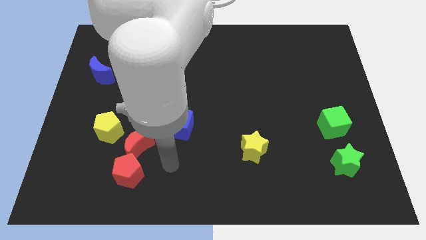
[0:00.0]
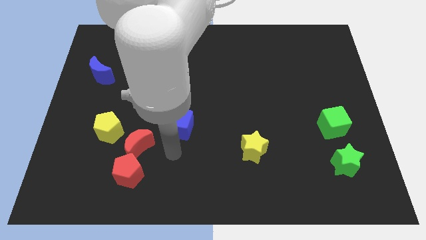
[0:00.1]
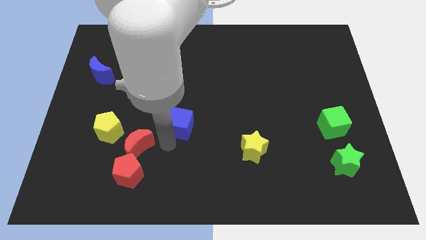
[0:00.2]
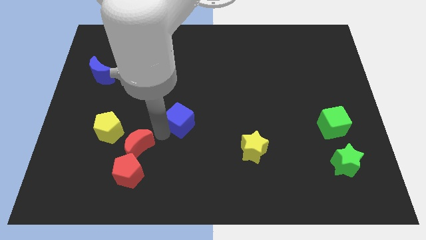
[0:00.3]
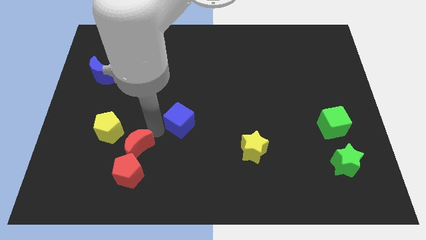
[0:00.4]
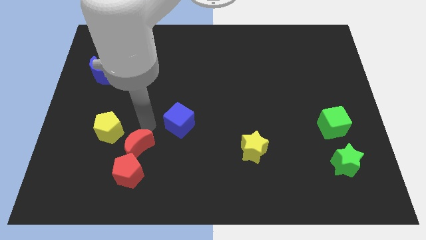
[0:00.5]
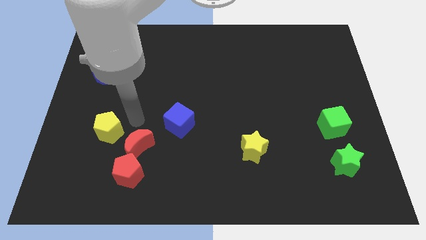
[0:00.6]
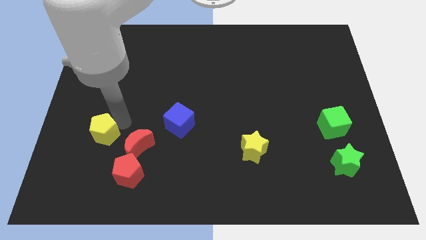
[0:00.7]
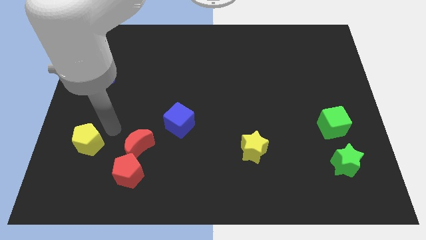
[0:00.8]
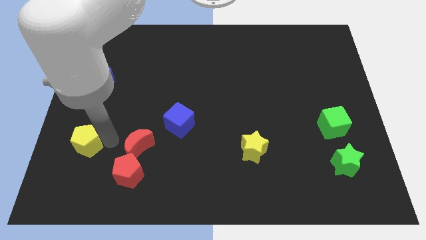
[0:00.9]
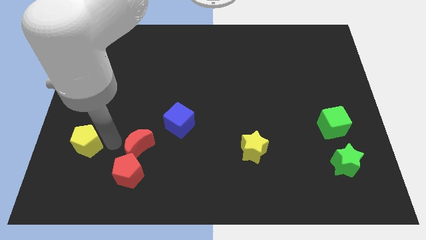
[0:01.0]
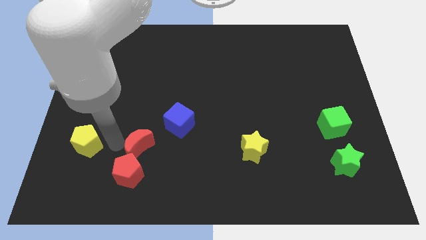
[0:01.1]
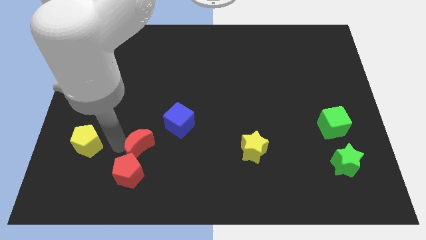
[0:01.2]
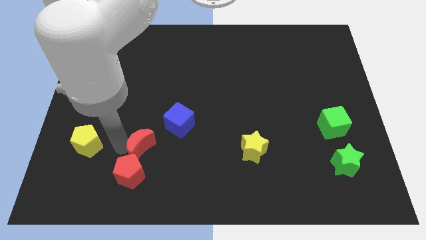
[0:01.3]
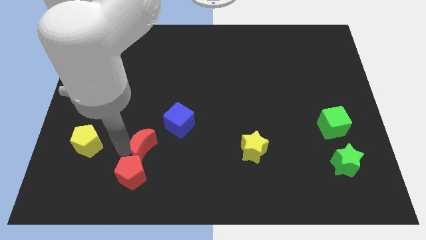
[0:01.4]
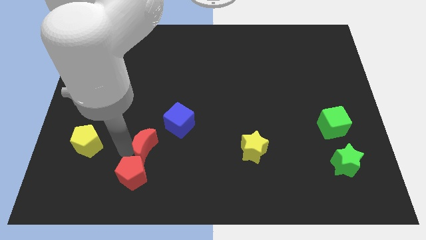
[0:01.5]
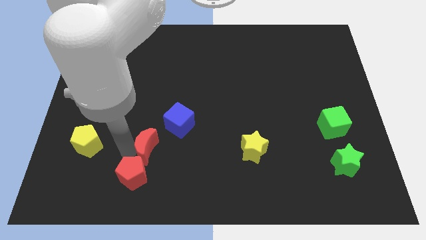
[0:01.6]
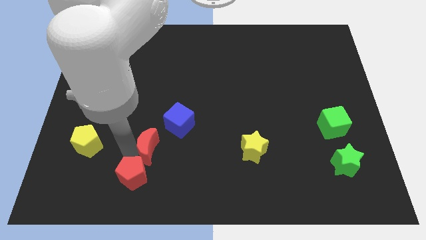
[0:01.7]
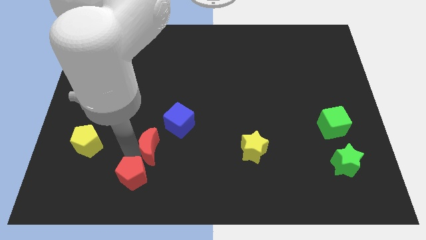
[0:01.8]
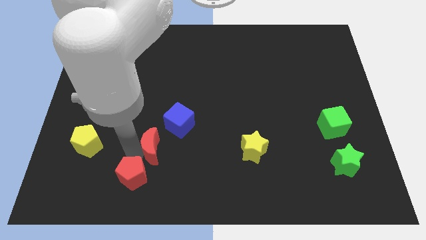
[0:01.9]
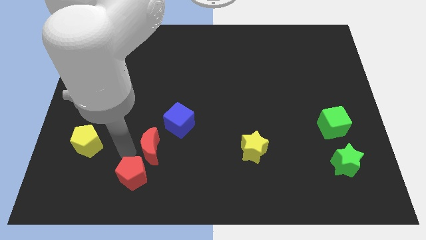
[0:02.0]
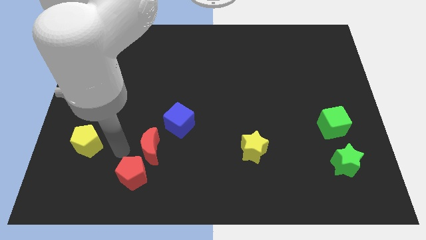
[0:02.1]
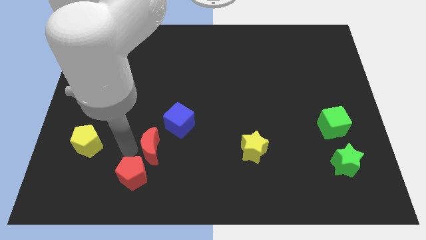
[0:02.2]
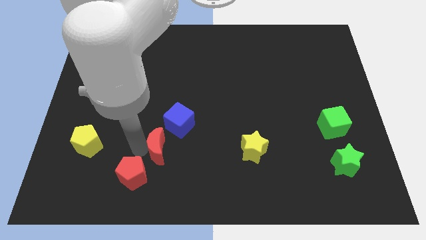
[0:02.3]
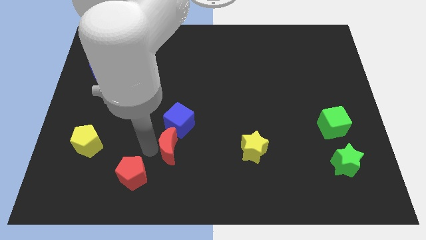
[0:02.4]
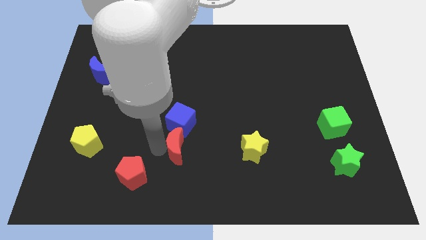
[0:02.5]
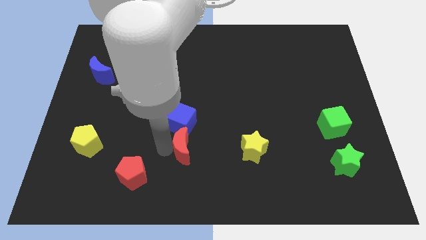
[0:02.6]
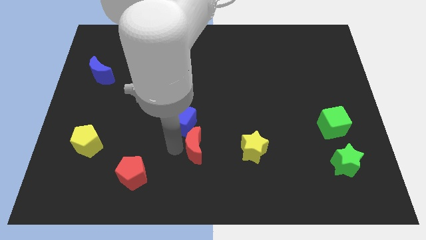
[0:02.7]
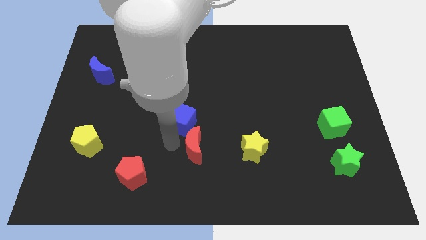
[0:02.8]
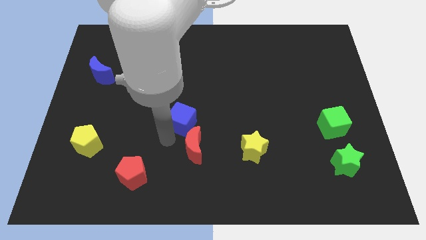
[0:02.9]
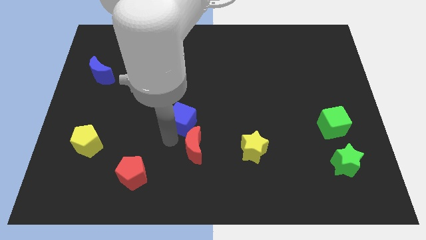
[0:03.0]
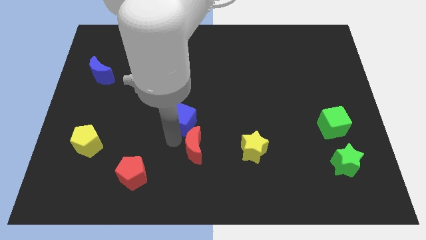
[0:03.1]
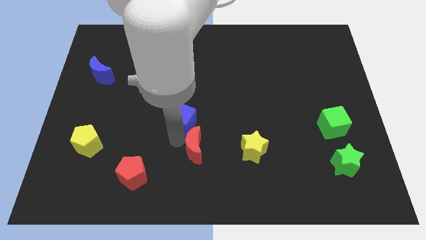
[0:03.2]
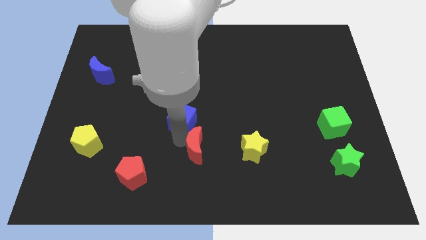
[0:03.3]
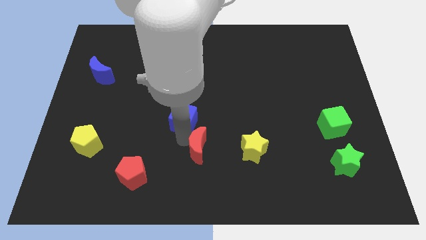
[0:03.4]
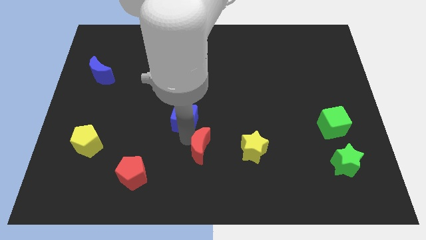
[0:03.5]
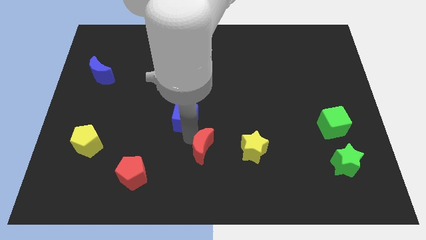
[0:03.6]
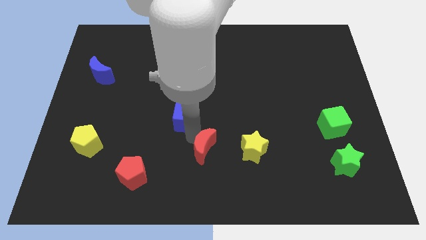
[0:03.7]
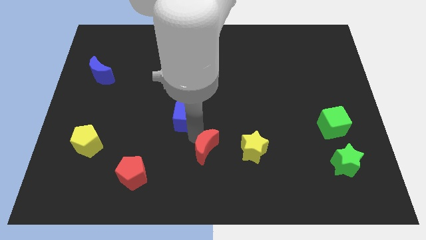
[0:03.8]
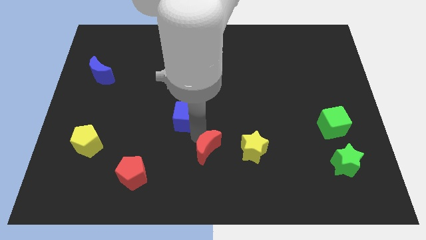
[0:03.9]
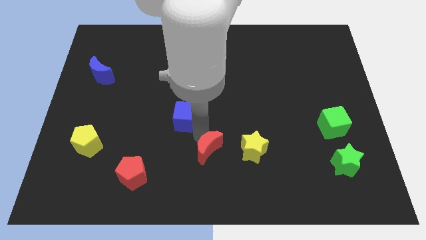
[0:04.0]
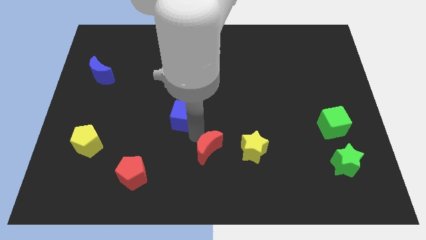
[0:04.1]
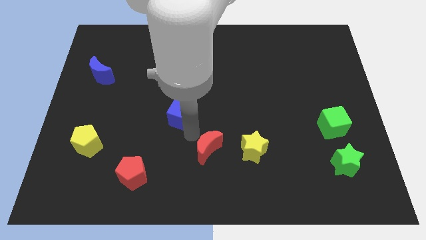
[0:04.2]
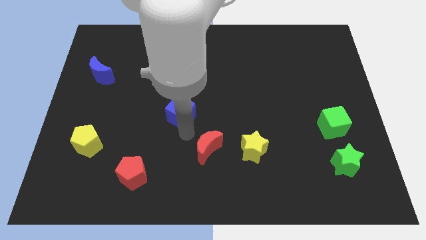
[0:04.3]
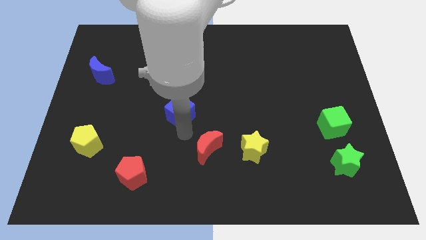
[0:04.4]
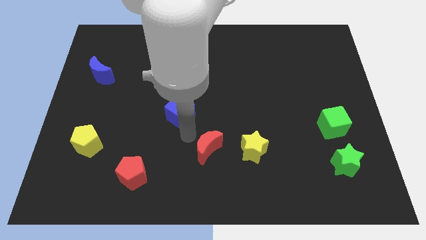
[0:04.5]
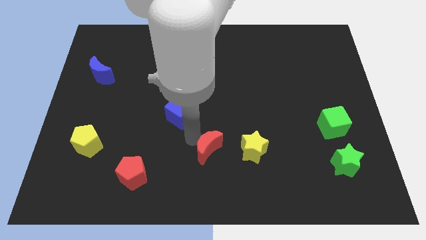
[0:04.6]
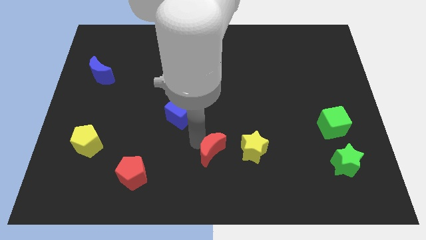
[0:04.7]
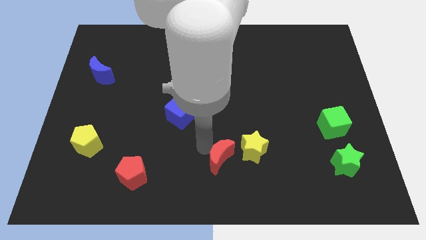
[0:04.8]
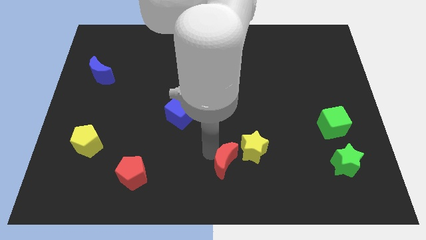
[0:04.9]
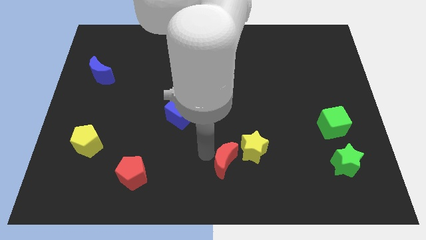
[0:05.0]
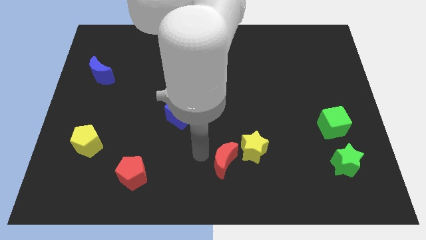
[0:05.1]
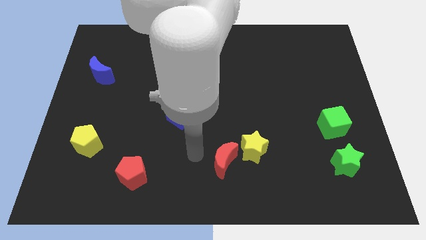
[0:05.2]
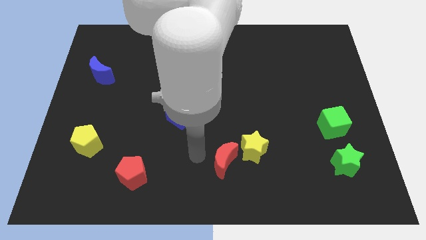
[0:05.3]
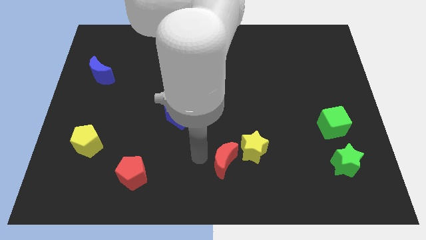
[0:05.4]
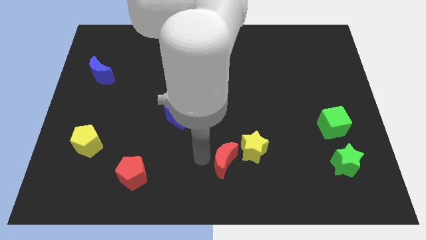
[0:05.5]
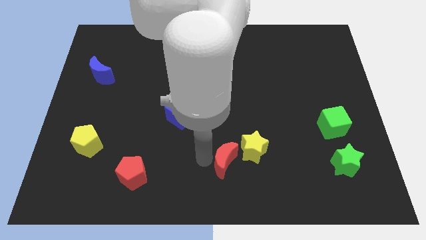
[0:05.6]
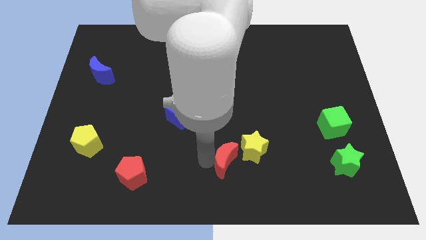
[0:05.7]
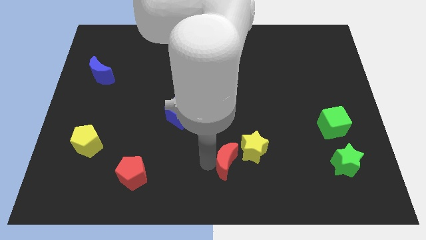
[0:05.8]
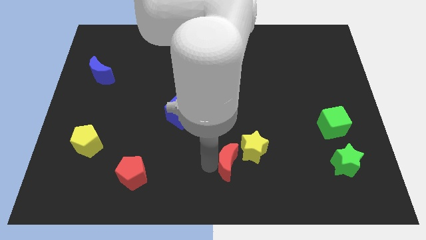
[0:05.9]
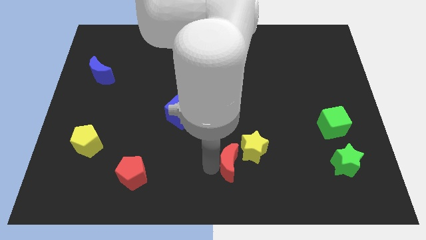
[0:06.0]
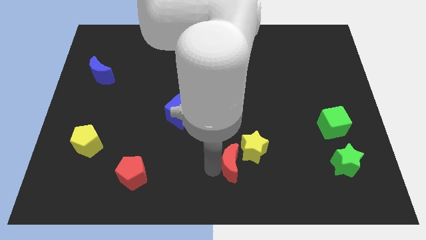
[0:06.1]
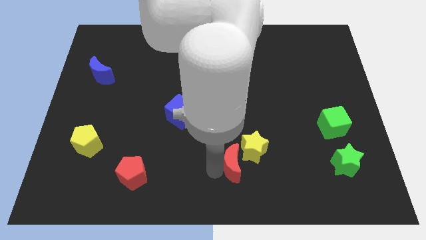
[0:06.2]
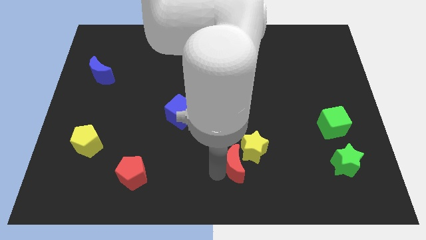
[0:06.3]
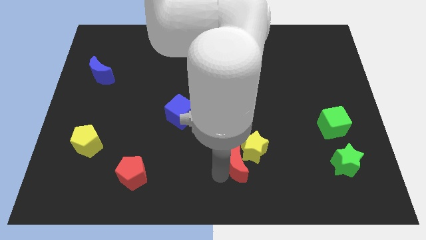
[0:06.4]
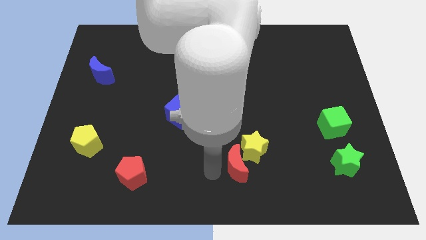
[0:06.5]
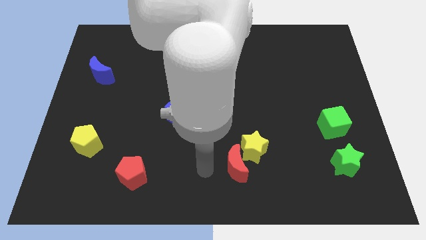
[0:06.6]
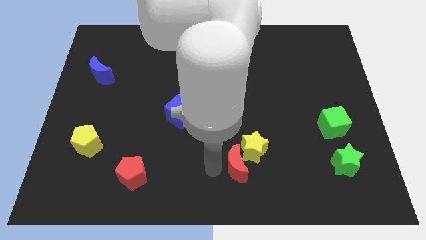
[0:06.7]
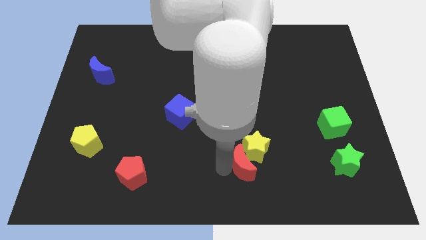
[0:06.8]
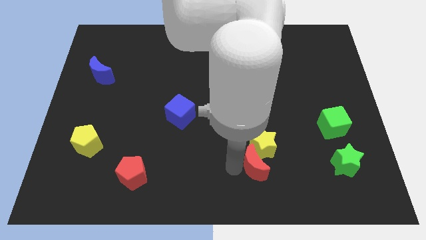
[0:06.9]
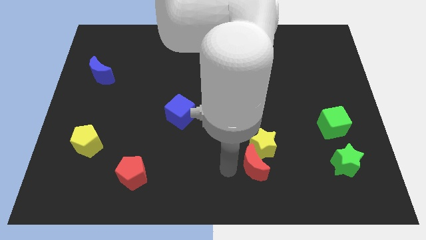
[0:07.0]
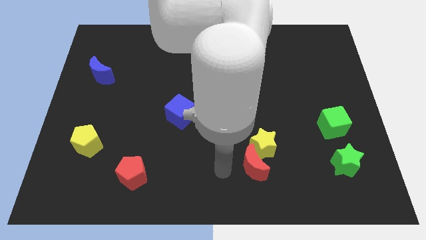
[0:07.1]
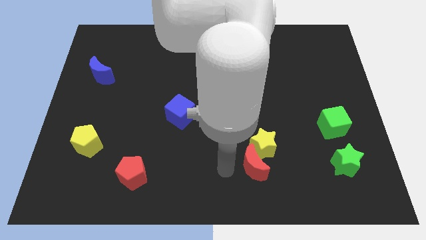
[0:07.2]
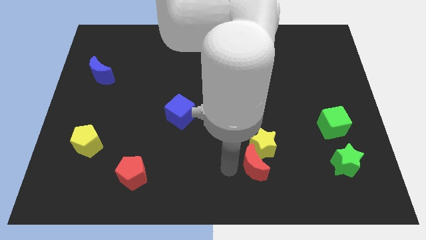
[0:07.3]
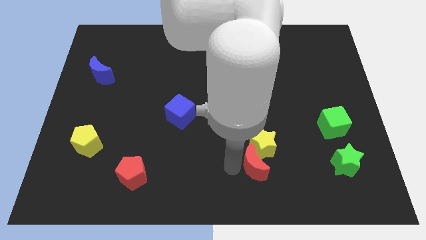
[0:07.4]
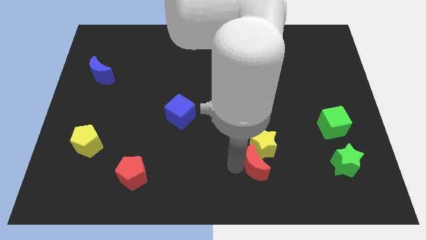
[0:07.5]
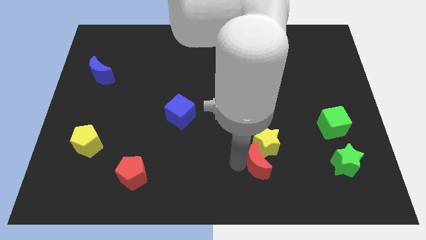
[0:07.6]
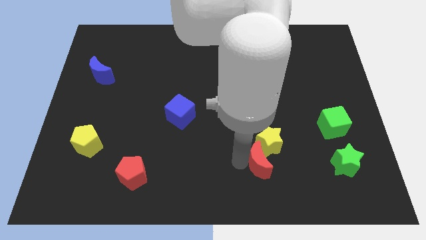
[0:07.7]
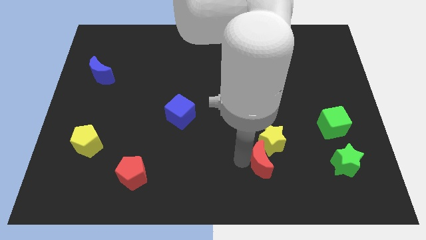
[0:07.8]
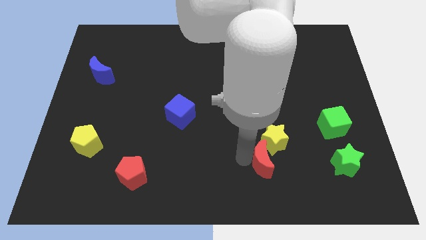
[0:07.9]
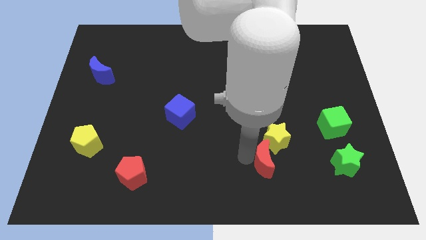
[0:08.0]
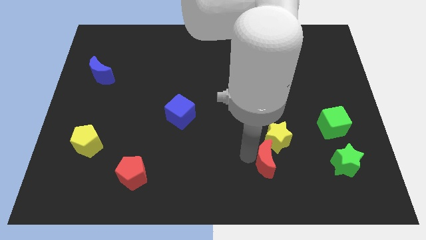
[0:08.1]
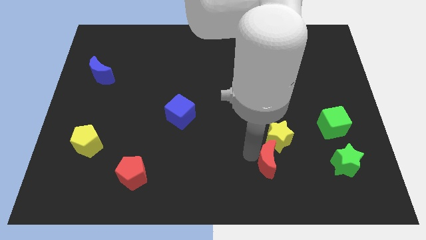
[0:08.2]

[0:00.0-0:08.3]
slide the red moon just left of the green star
